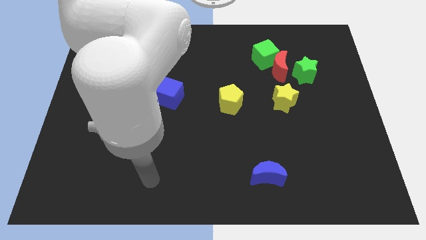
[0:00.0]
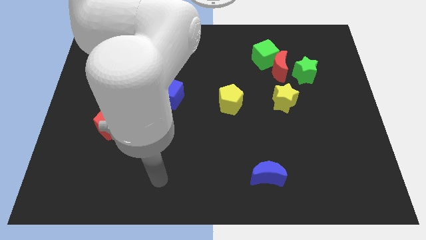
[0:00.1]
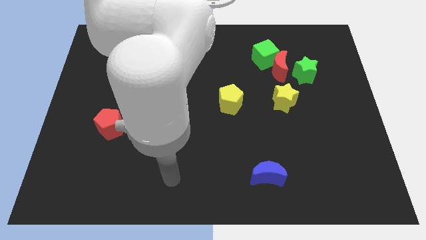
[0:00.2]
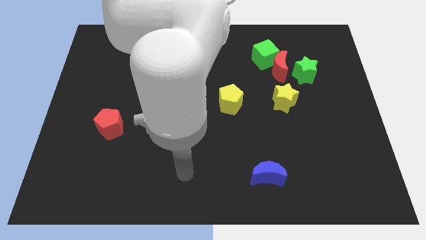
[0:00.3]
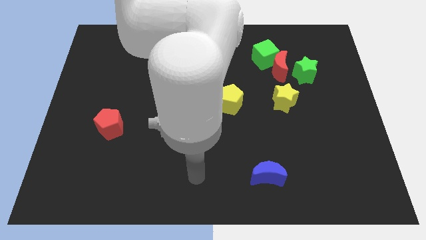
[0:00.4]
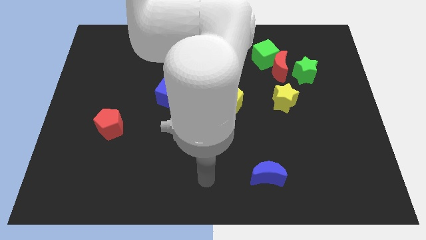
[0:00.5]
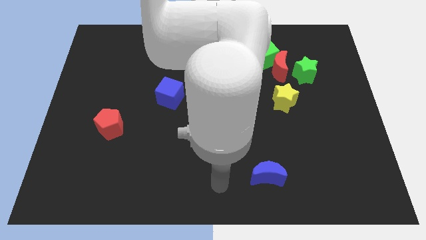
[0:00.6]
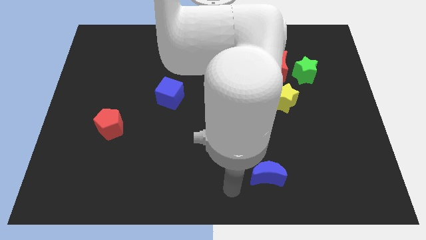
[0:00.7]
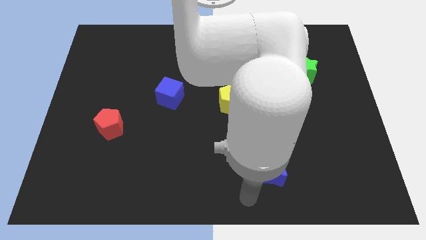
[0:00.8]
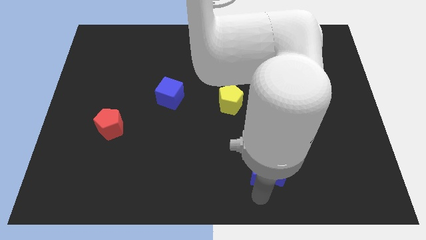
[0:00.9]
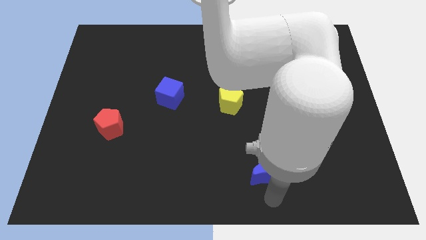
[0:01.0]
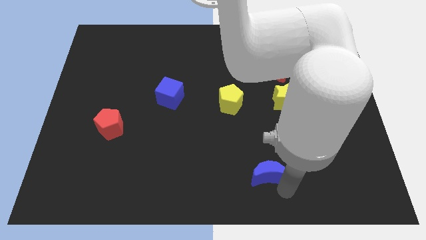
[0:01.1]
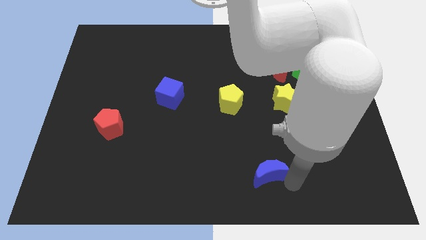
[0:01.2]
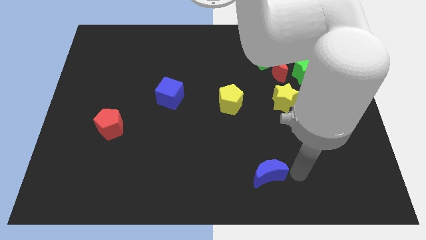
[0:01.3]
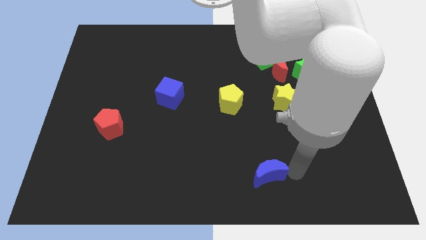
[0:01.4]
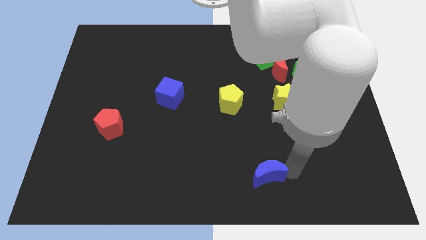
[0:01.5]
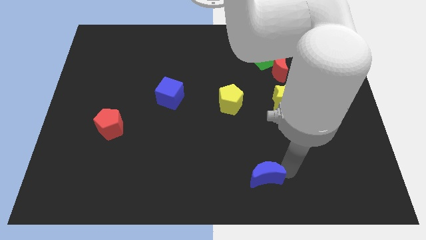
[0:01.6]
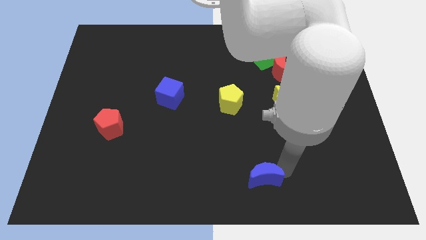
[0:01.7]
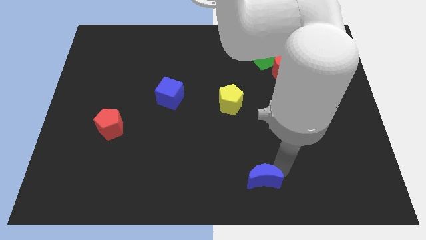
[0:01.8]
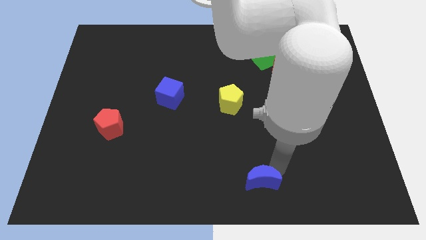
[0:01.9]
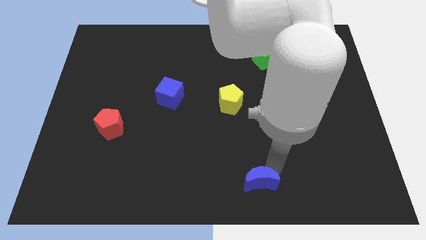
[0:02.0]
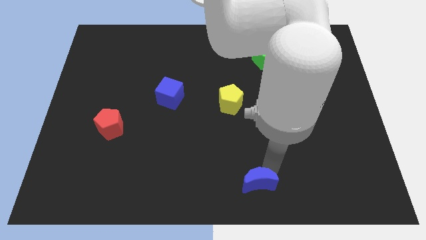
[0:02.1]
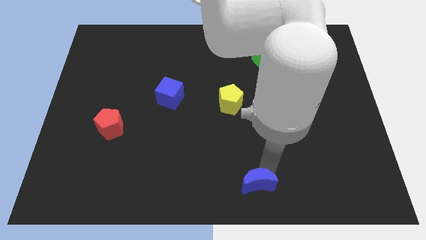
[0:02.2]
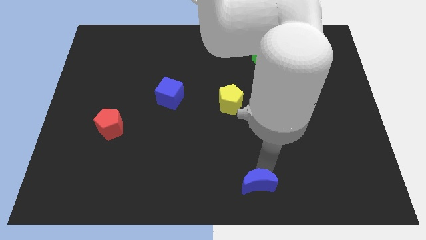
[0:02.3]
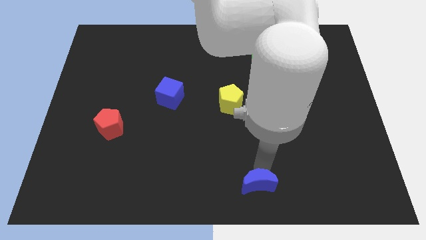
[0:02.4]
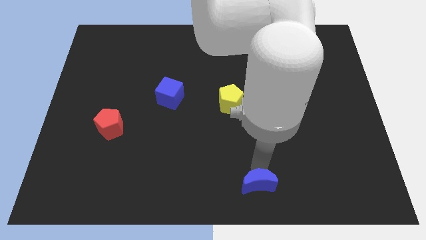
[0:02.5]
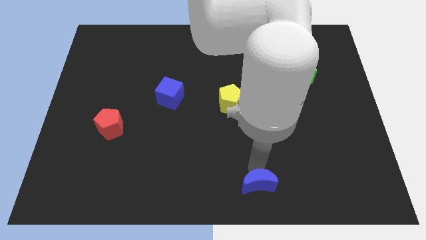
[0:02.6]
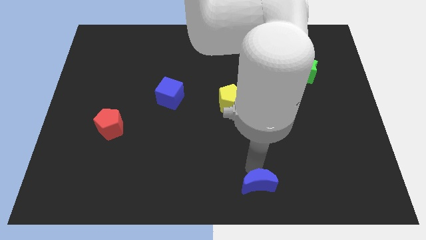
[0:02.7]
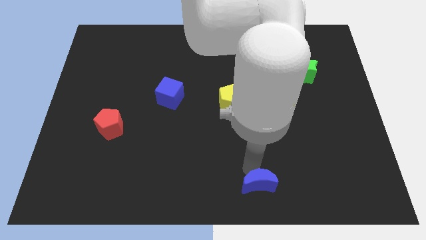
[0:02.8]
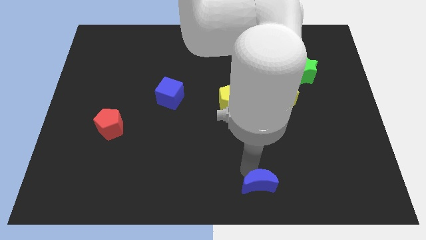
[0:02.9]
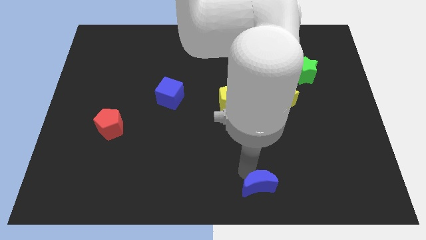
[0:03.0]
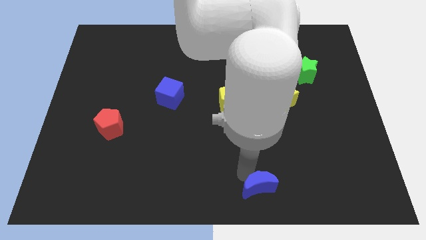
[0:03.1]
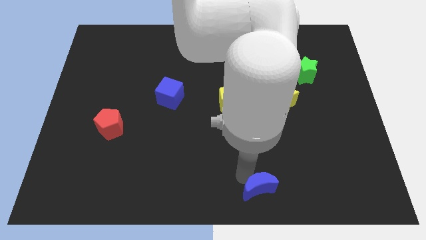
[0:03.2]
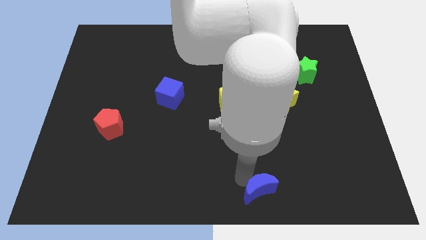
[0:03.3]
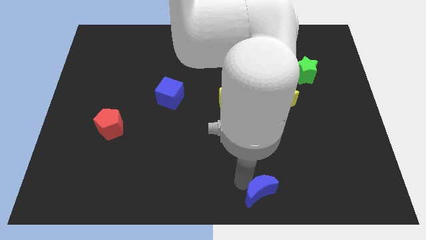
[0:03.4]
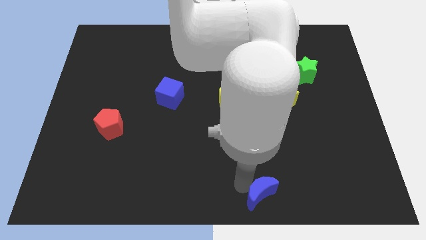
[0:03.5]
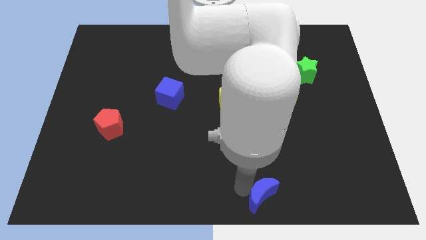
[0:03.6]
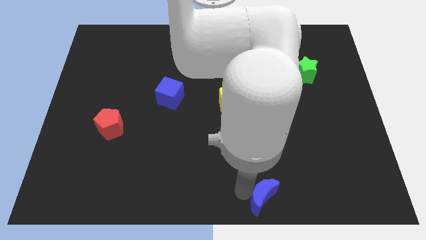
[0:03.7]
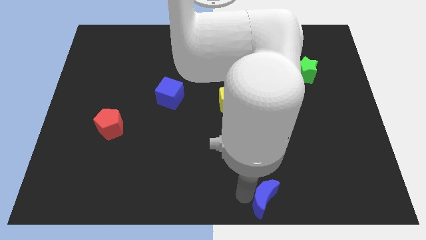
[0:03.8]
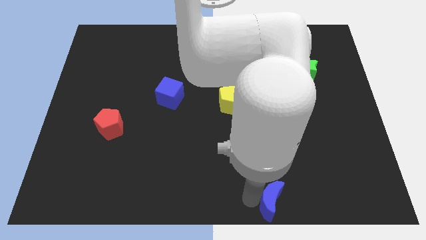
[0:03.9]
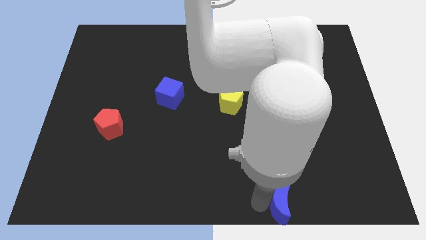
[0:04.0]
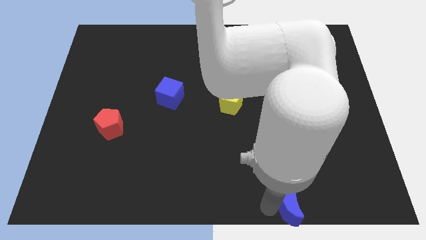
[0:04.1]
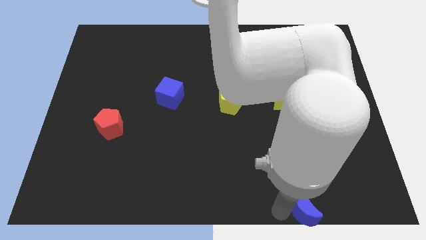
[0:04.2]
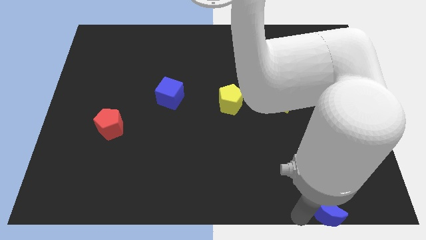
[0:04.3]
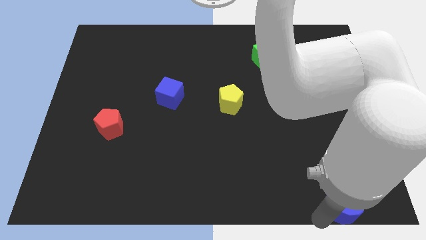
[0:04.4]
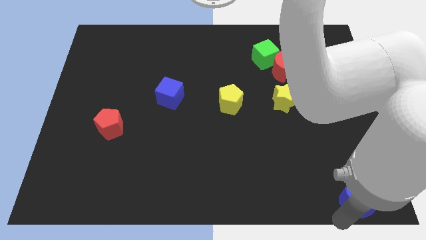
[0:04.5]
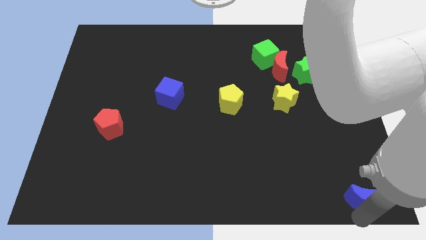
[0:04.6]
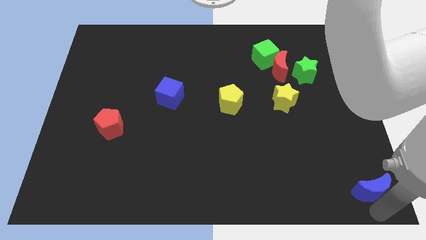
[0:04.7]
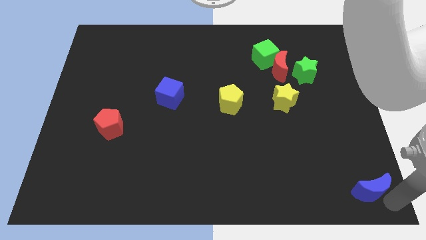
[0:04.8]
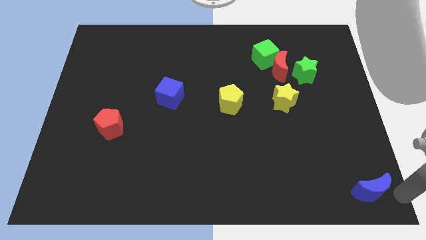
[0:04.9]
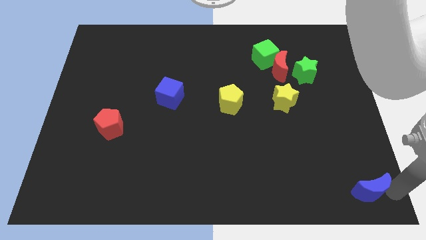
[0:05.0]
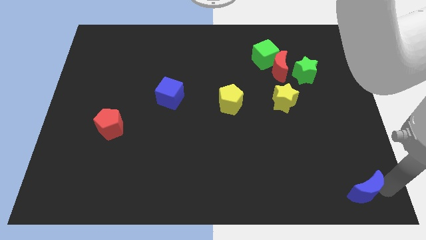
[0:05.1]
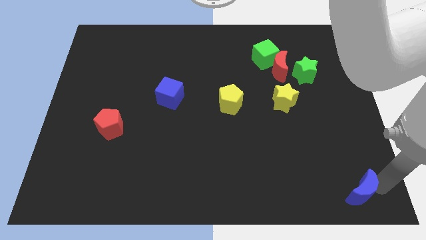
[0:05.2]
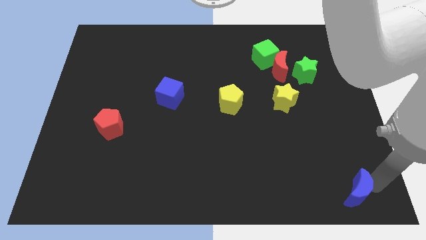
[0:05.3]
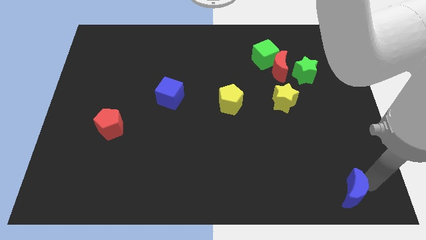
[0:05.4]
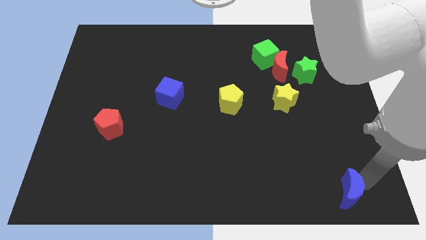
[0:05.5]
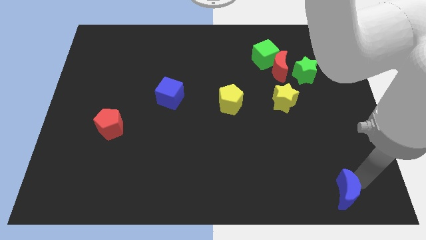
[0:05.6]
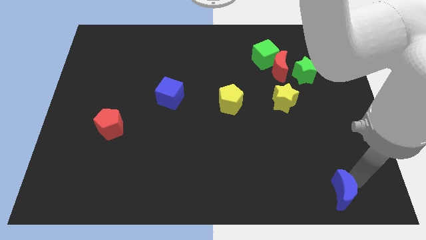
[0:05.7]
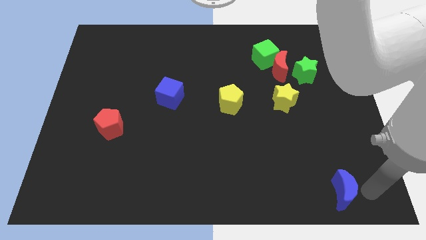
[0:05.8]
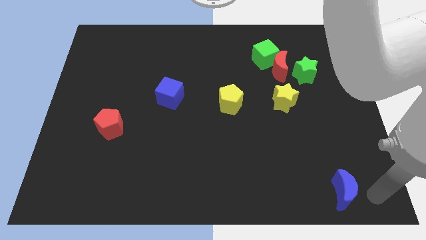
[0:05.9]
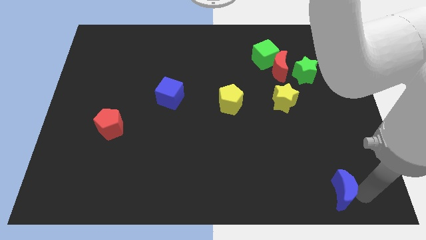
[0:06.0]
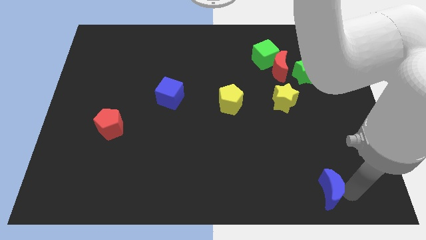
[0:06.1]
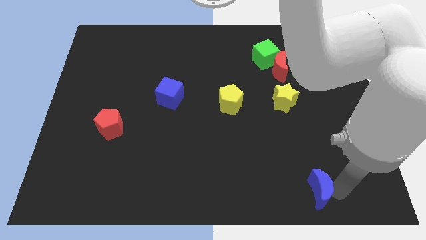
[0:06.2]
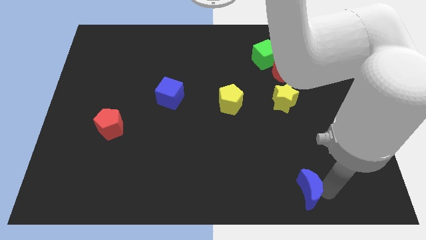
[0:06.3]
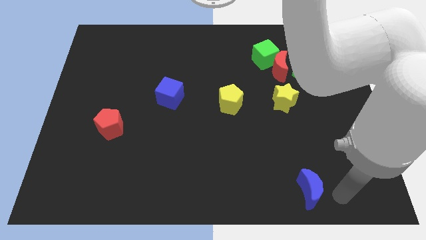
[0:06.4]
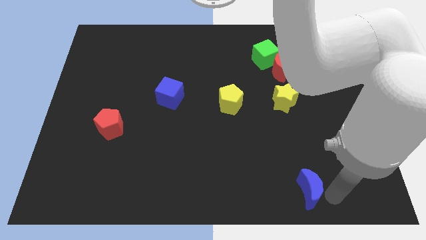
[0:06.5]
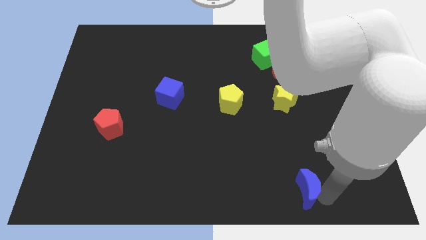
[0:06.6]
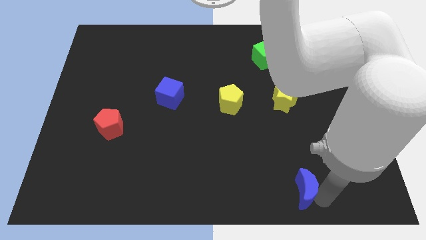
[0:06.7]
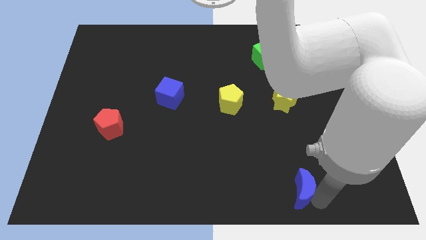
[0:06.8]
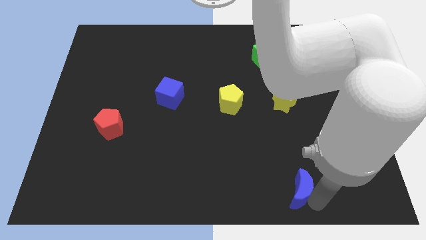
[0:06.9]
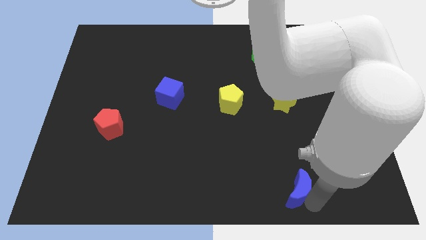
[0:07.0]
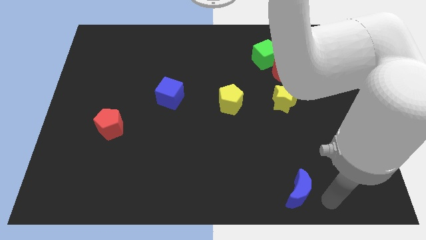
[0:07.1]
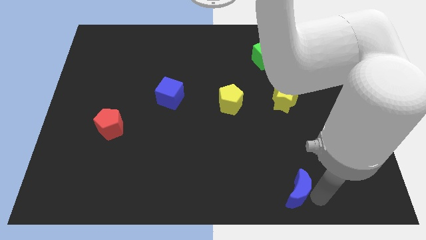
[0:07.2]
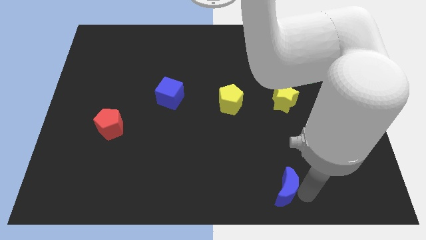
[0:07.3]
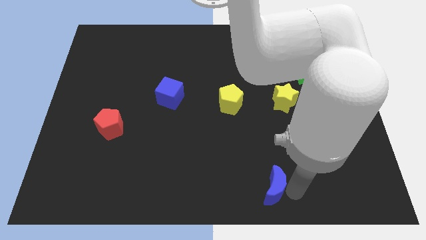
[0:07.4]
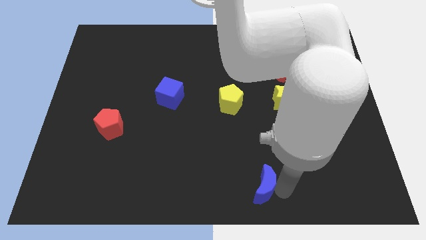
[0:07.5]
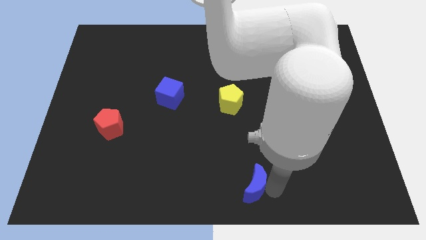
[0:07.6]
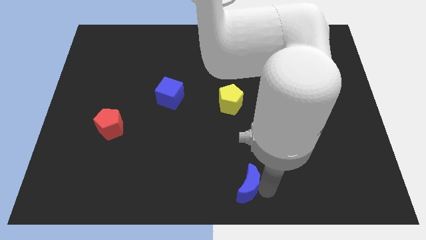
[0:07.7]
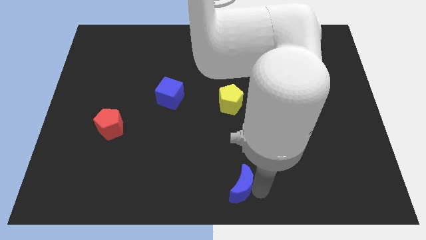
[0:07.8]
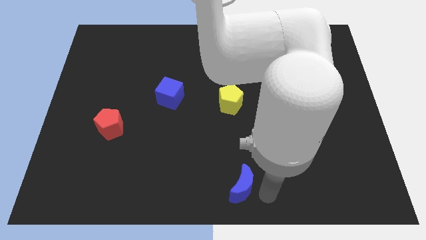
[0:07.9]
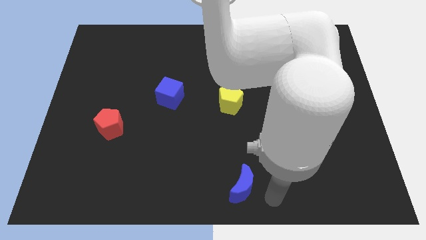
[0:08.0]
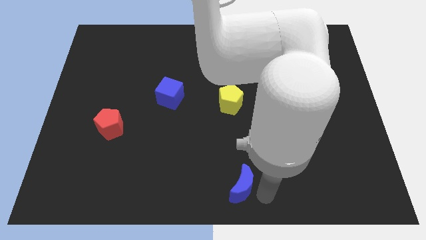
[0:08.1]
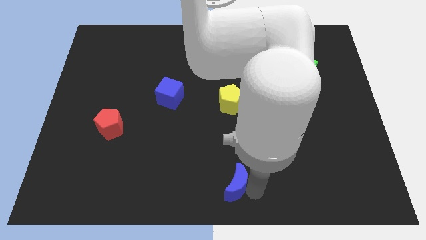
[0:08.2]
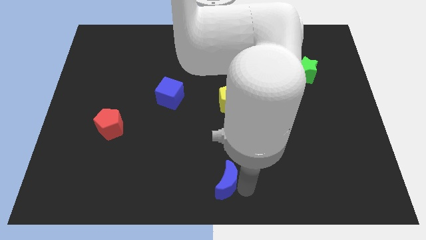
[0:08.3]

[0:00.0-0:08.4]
slightly move the blue moon to the left
